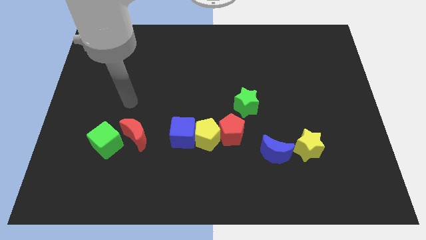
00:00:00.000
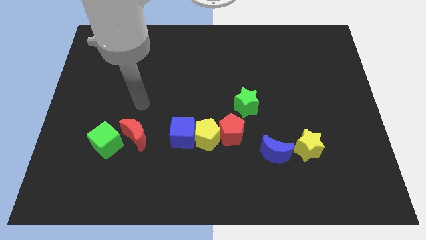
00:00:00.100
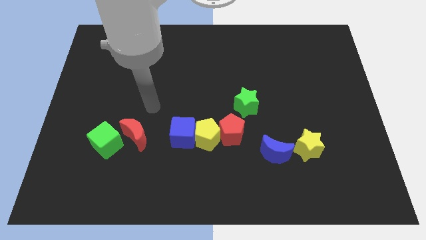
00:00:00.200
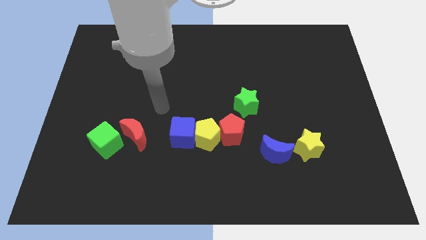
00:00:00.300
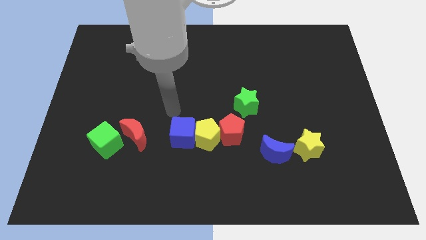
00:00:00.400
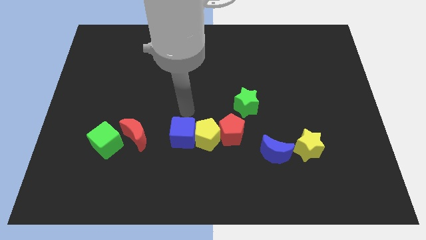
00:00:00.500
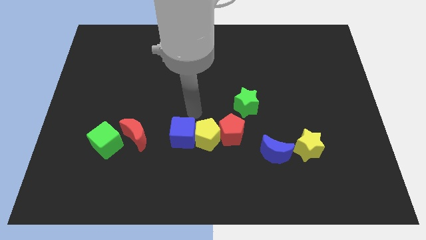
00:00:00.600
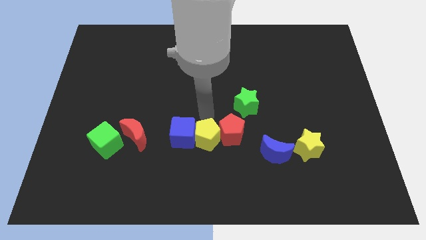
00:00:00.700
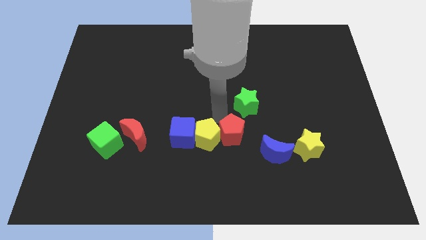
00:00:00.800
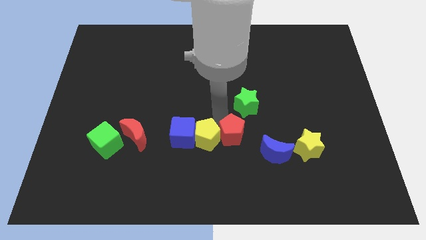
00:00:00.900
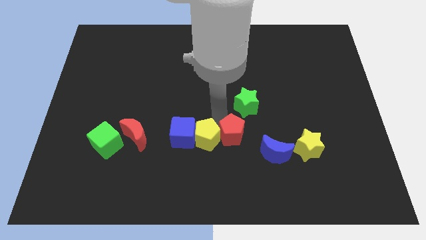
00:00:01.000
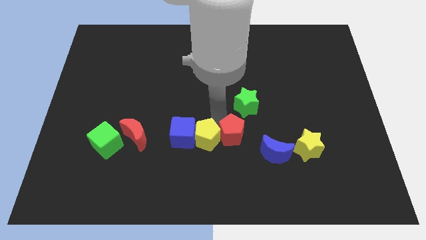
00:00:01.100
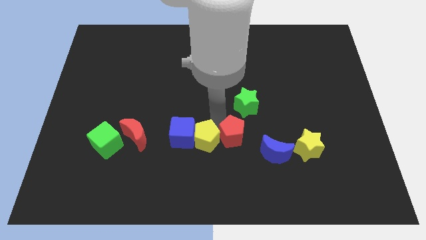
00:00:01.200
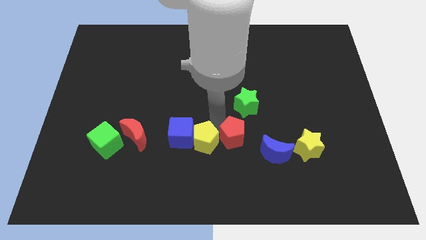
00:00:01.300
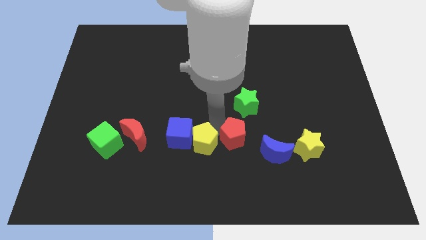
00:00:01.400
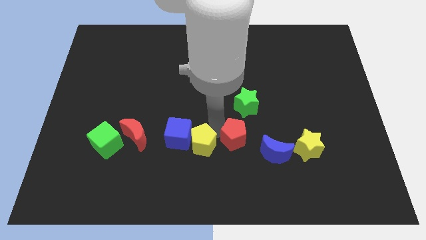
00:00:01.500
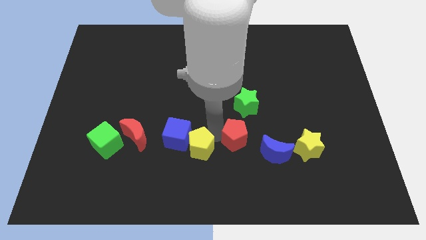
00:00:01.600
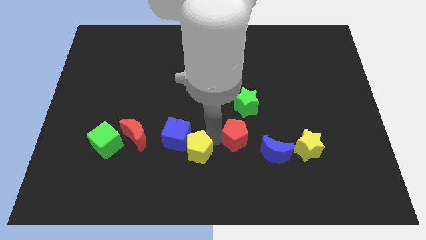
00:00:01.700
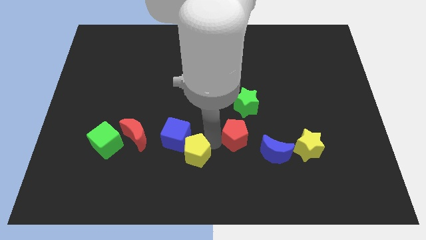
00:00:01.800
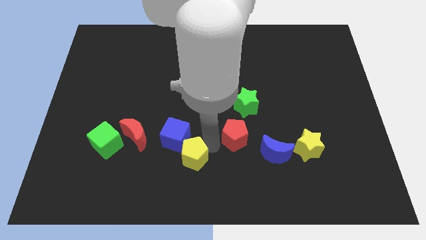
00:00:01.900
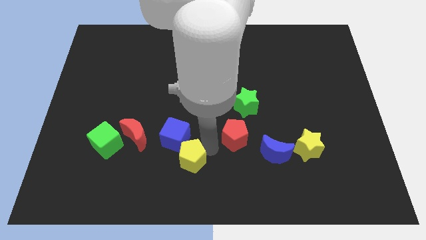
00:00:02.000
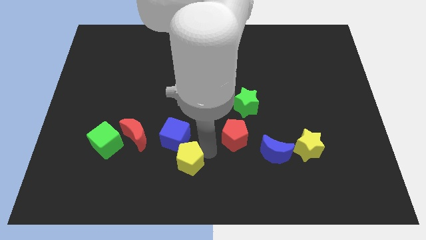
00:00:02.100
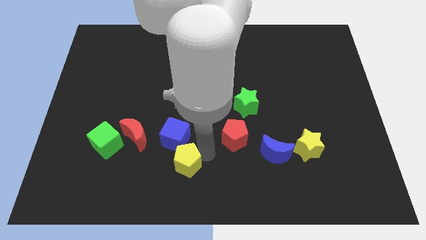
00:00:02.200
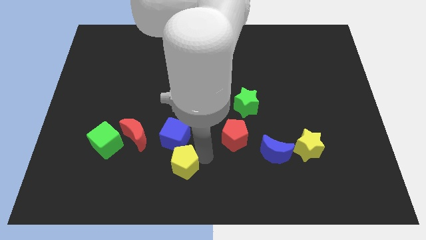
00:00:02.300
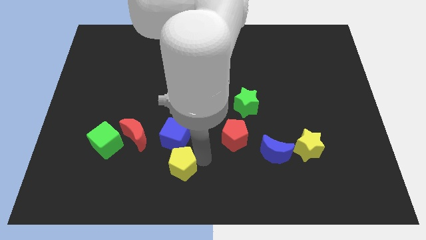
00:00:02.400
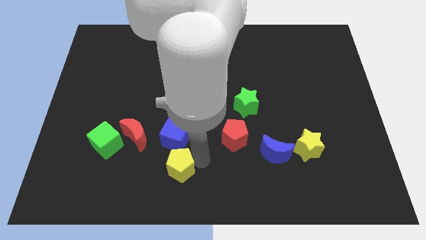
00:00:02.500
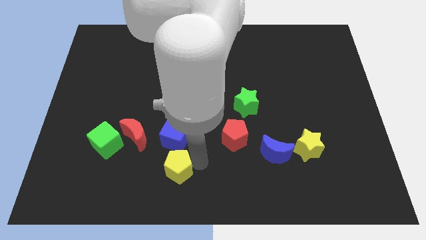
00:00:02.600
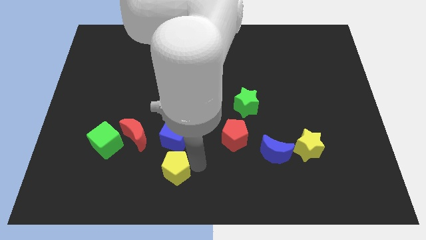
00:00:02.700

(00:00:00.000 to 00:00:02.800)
separate the yellow pentagon from the blue cube and red pentagon

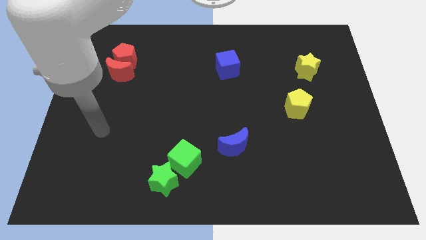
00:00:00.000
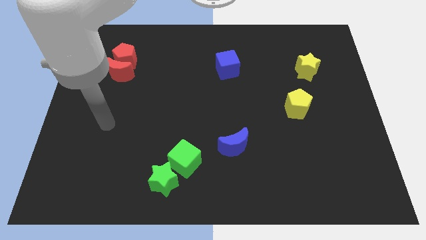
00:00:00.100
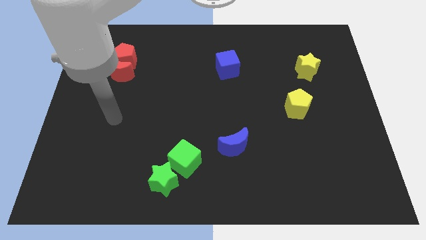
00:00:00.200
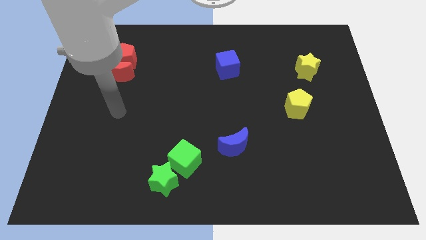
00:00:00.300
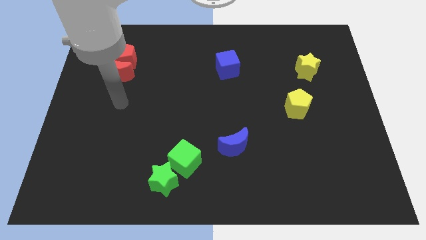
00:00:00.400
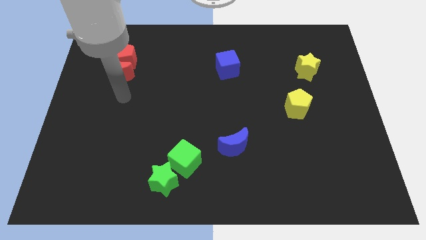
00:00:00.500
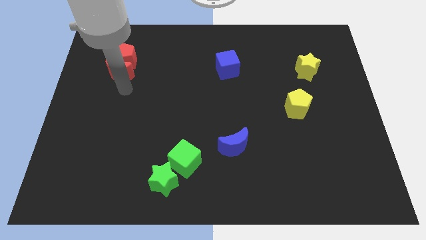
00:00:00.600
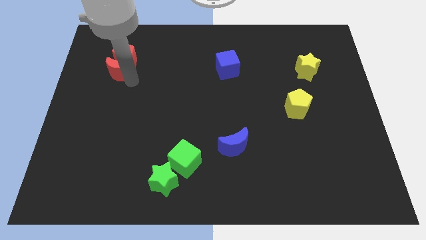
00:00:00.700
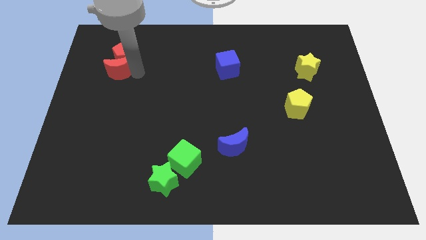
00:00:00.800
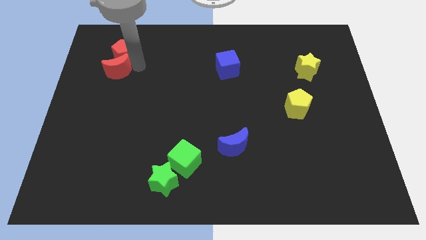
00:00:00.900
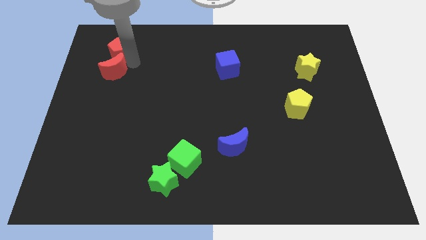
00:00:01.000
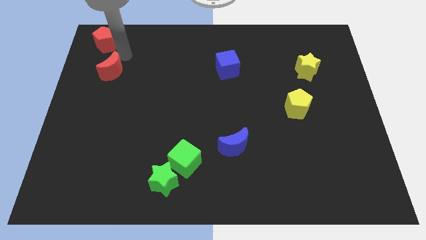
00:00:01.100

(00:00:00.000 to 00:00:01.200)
separate the red moon from the red pentagon

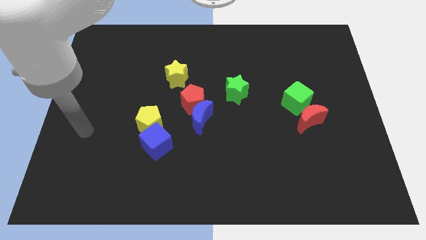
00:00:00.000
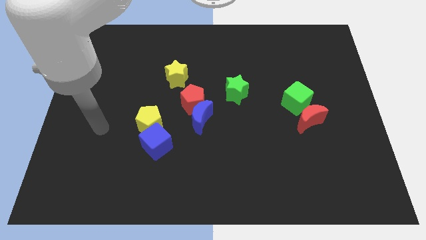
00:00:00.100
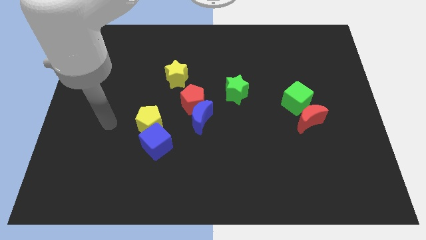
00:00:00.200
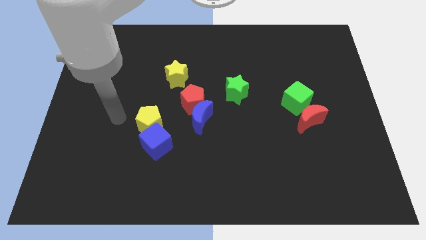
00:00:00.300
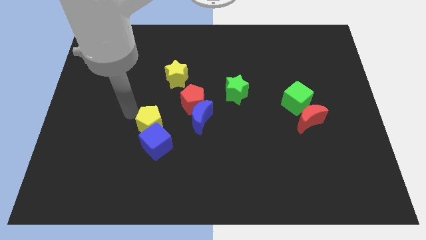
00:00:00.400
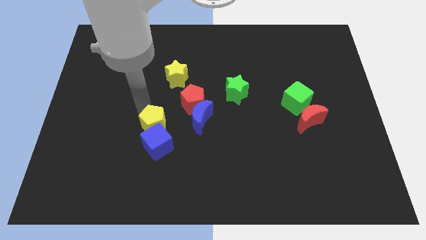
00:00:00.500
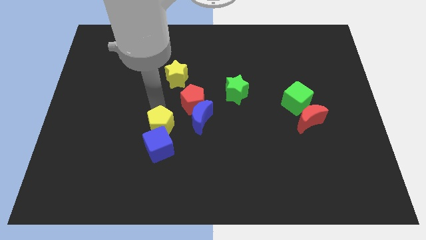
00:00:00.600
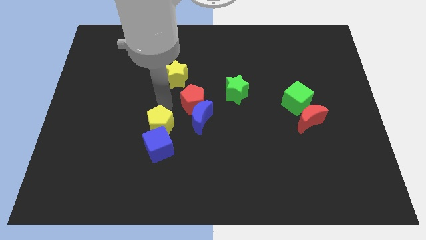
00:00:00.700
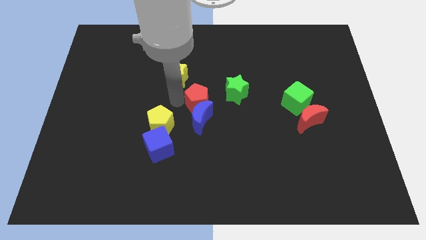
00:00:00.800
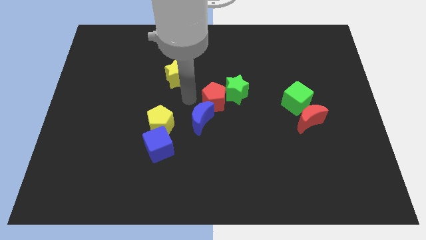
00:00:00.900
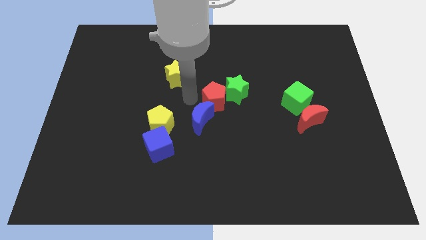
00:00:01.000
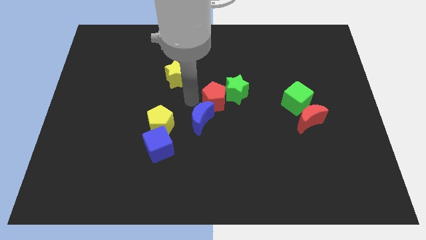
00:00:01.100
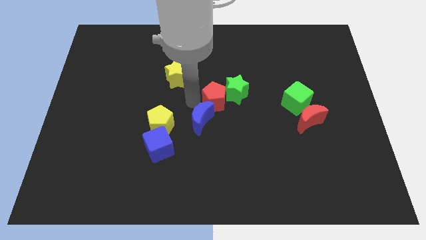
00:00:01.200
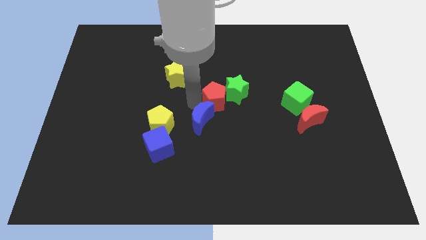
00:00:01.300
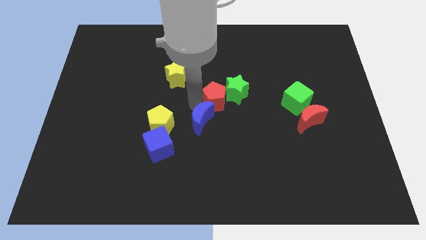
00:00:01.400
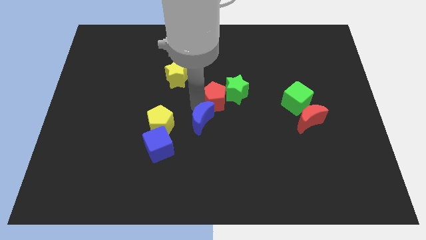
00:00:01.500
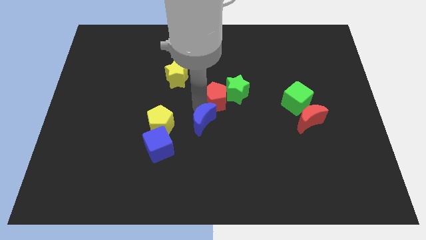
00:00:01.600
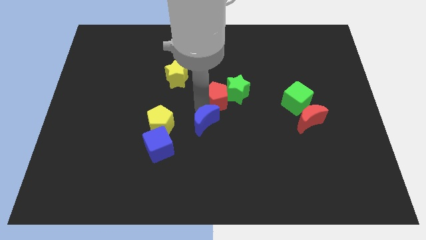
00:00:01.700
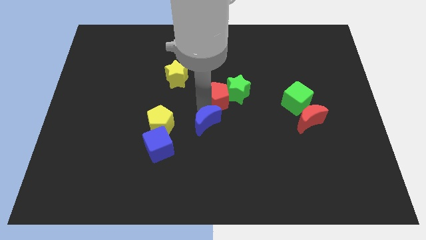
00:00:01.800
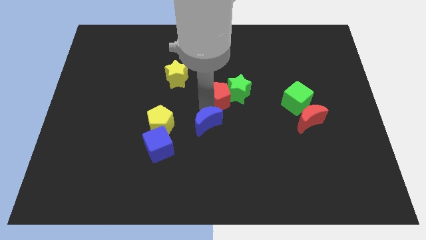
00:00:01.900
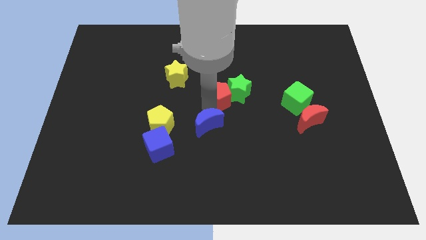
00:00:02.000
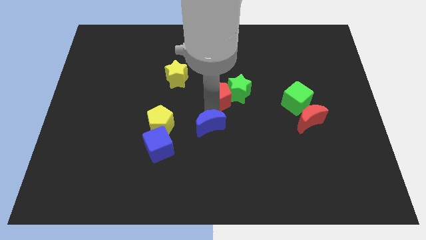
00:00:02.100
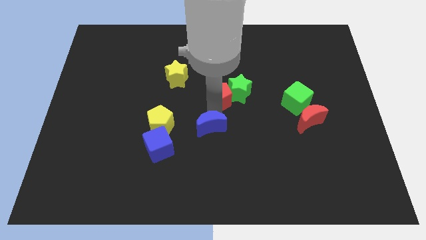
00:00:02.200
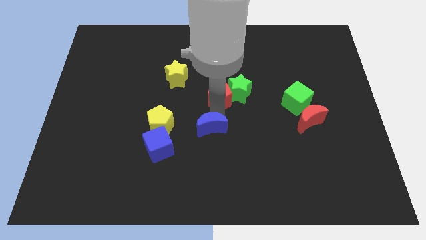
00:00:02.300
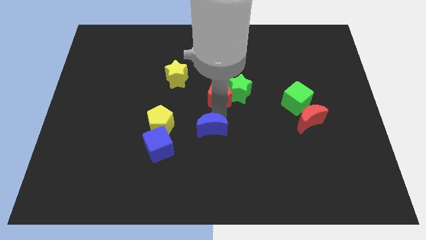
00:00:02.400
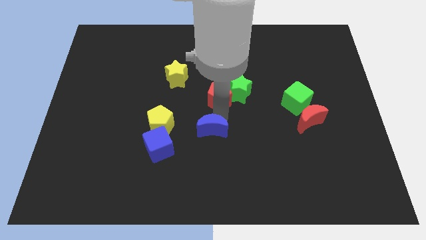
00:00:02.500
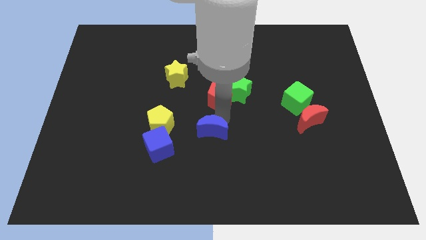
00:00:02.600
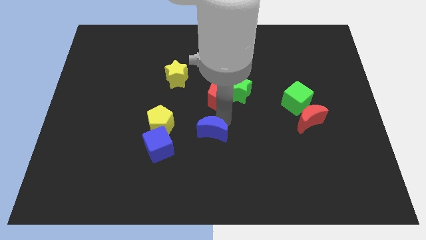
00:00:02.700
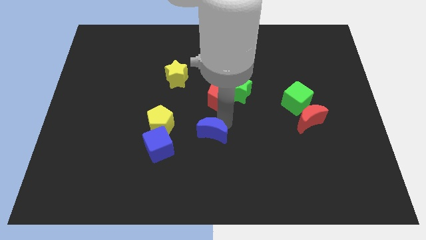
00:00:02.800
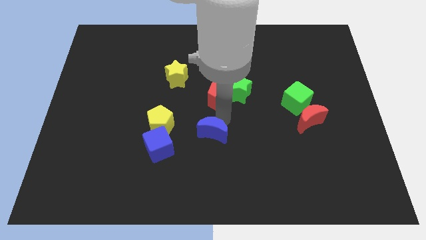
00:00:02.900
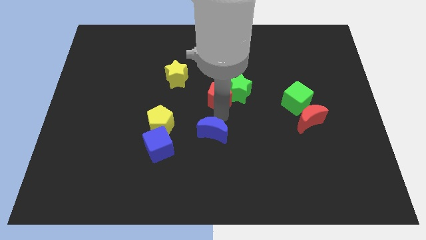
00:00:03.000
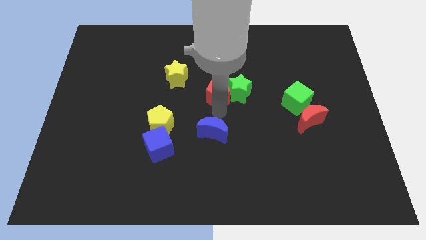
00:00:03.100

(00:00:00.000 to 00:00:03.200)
move the blue moon away from the red pentagon

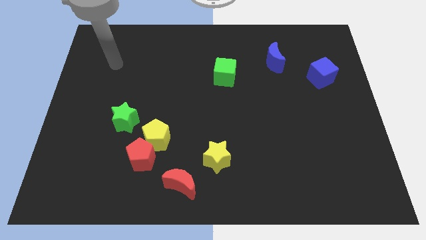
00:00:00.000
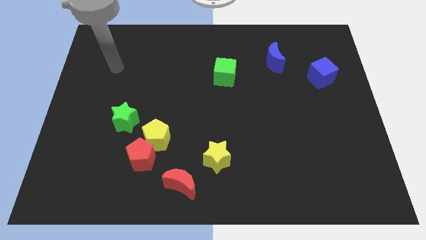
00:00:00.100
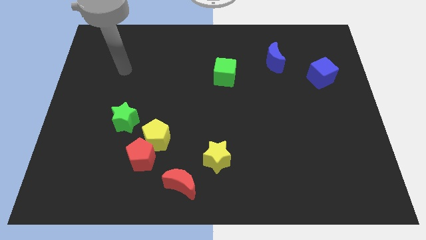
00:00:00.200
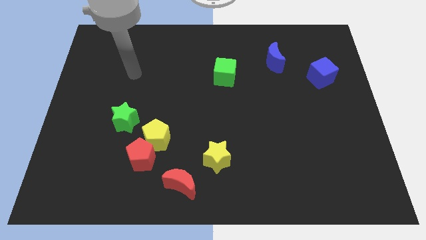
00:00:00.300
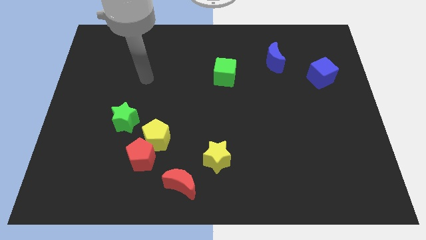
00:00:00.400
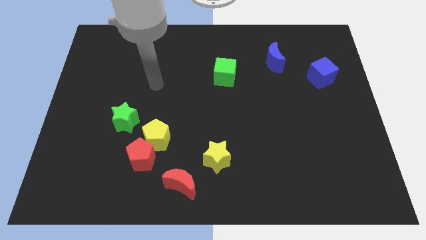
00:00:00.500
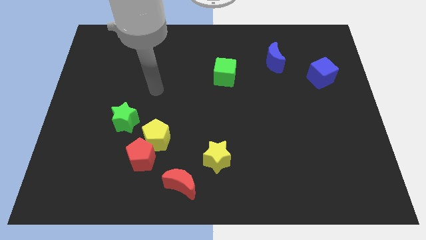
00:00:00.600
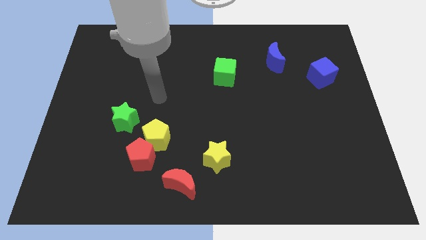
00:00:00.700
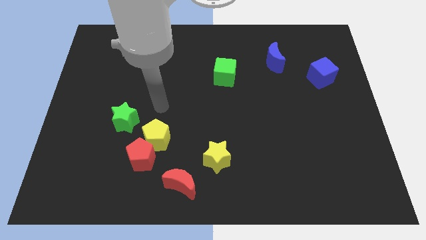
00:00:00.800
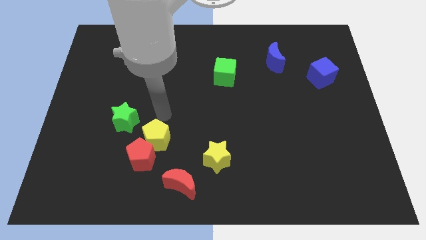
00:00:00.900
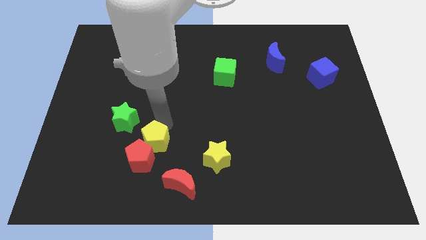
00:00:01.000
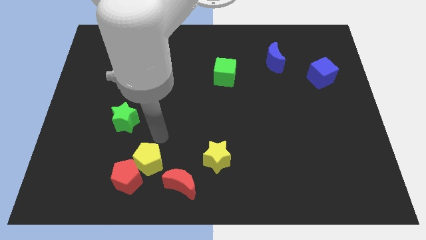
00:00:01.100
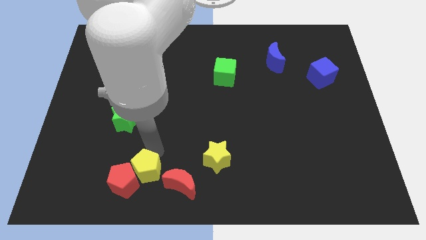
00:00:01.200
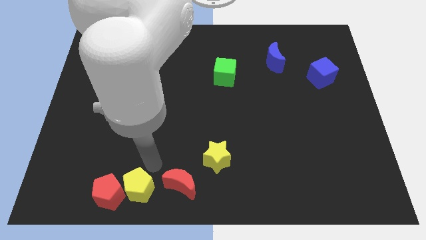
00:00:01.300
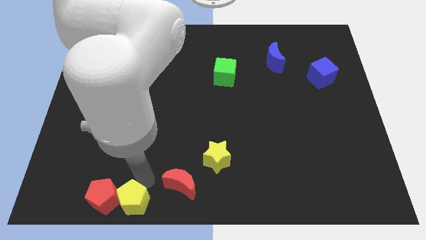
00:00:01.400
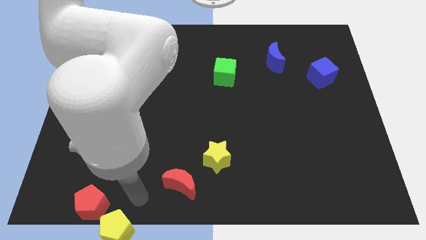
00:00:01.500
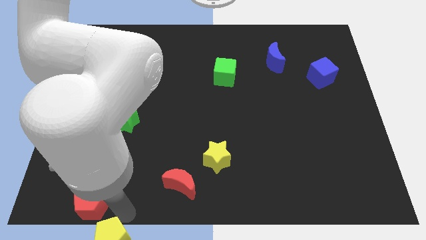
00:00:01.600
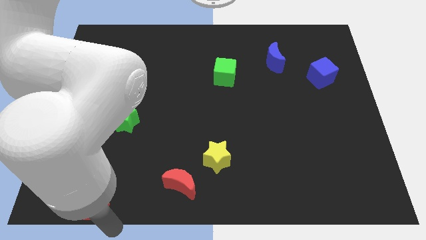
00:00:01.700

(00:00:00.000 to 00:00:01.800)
pull the red pentagon apart from the yellow pentagon

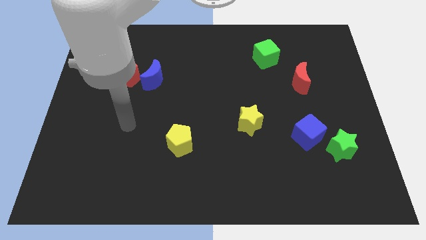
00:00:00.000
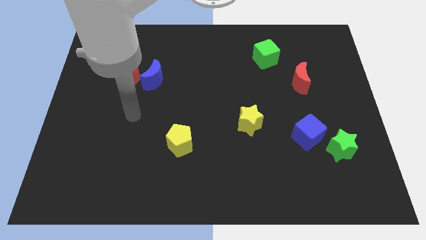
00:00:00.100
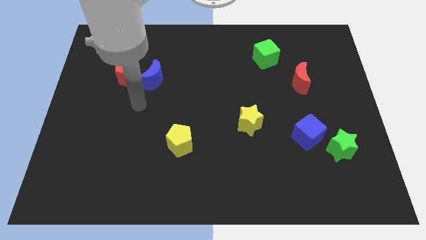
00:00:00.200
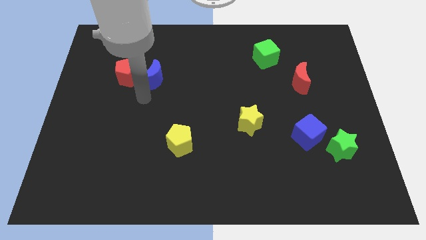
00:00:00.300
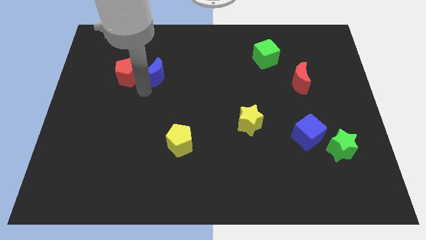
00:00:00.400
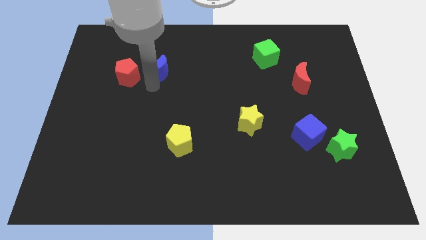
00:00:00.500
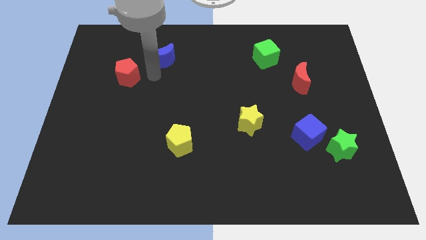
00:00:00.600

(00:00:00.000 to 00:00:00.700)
separate the red pentagon from the blue moon
